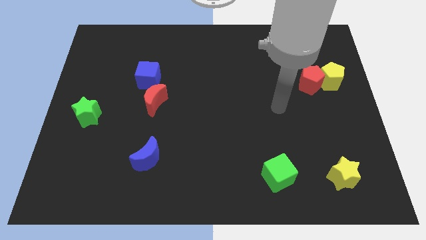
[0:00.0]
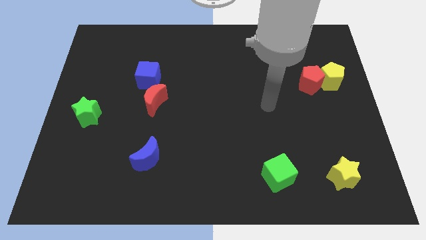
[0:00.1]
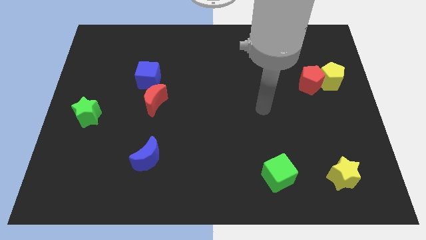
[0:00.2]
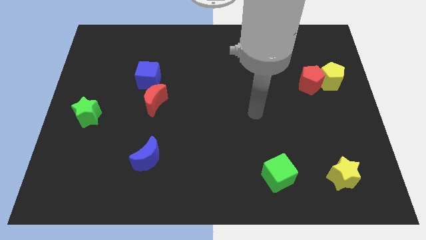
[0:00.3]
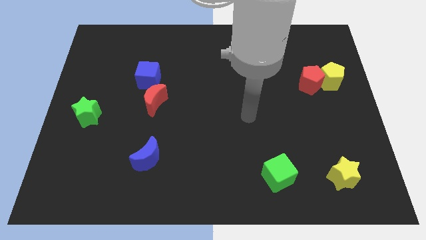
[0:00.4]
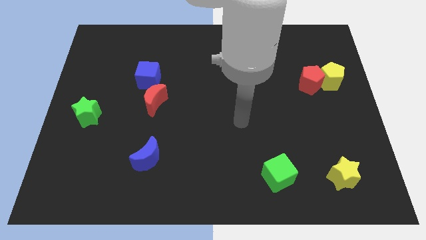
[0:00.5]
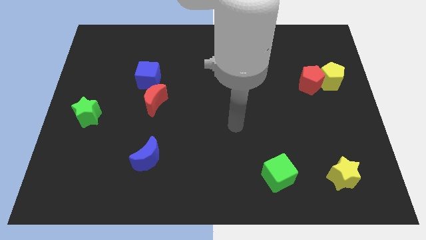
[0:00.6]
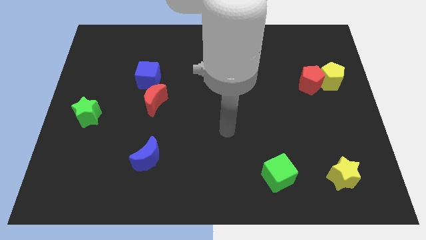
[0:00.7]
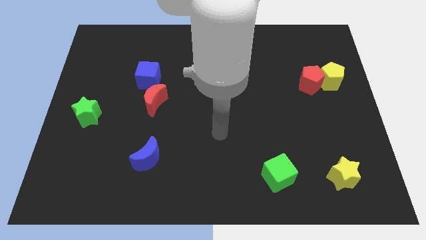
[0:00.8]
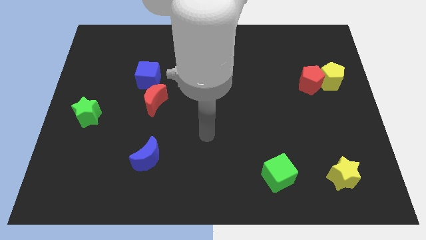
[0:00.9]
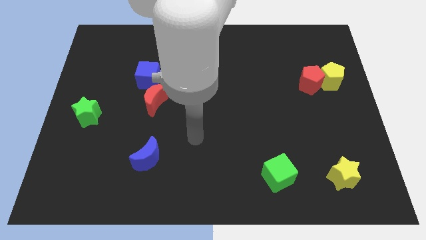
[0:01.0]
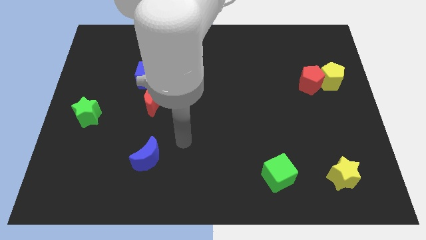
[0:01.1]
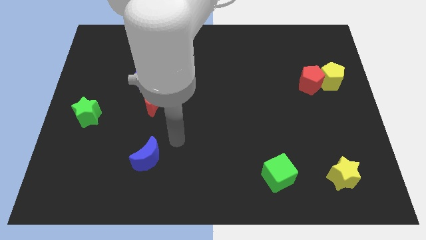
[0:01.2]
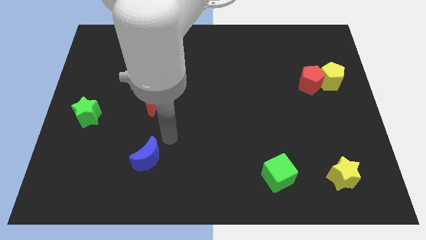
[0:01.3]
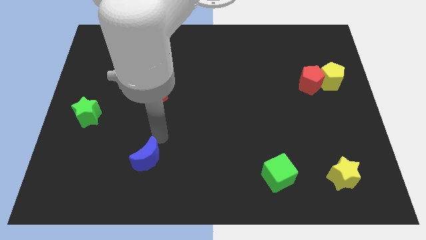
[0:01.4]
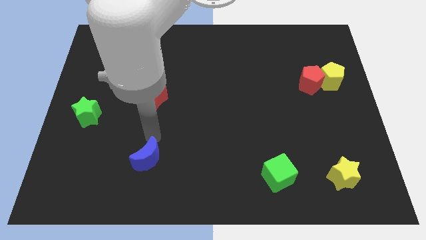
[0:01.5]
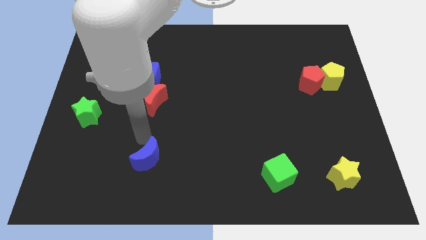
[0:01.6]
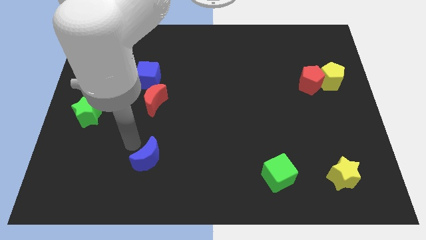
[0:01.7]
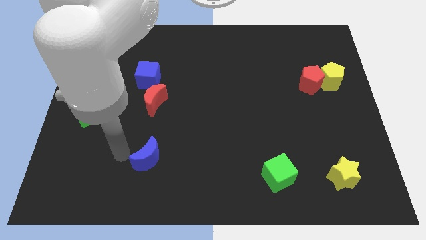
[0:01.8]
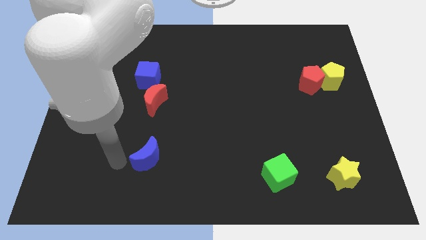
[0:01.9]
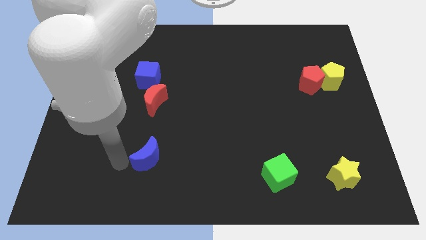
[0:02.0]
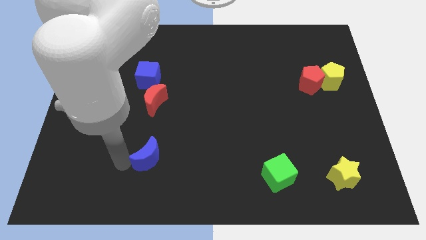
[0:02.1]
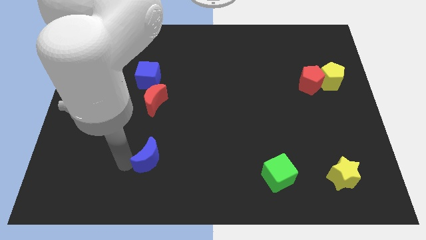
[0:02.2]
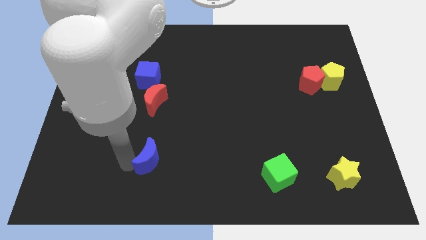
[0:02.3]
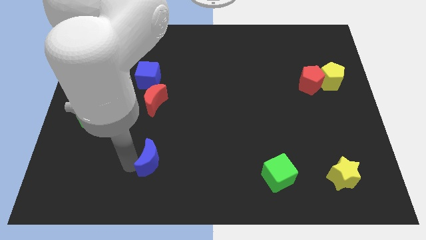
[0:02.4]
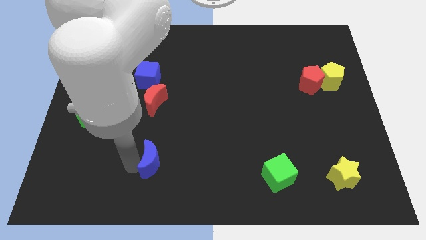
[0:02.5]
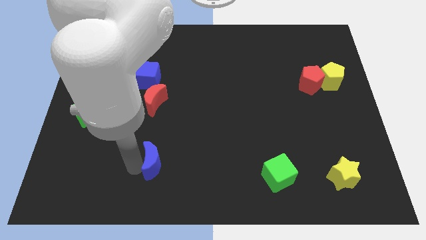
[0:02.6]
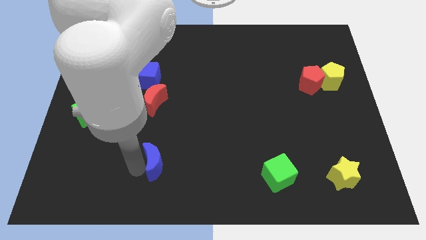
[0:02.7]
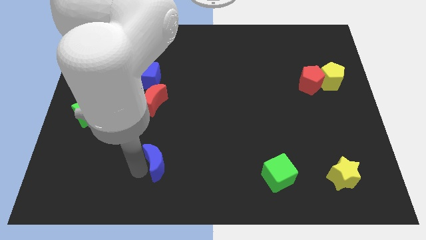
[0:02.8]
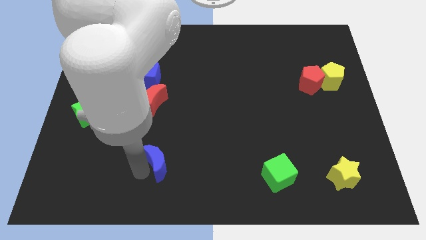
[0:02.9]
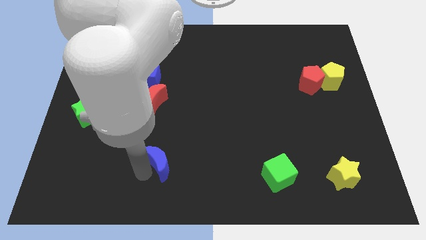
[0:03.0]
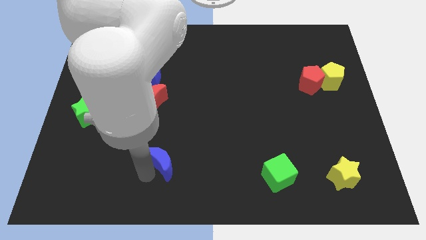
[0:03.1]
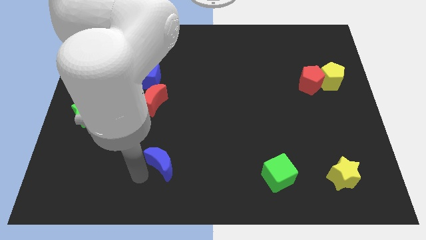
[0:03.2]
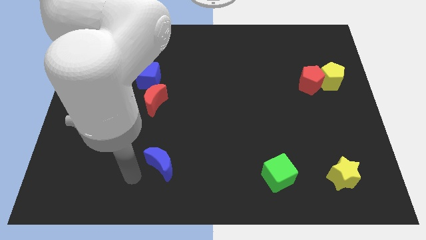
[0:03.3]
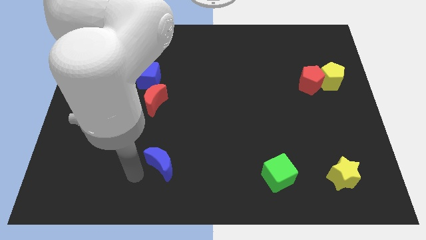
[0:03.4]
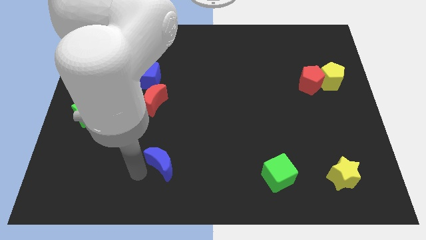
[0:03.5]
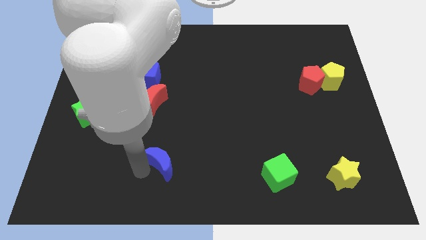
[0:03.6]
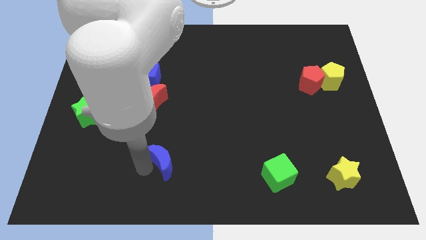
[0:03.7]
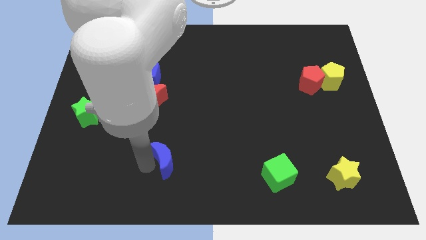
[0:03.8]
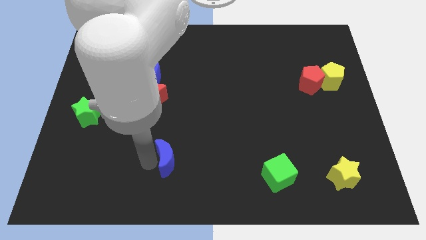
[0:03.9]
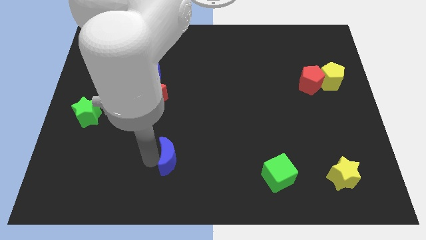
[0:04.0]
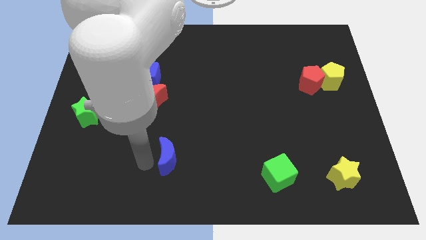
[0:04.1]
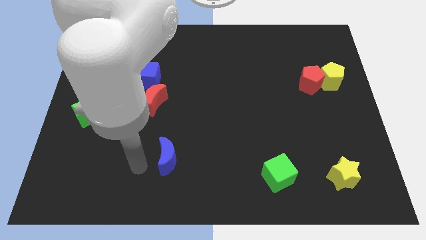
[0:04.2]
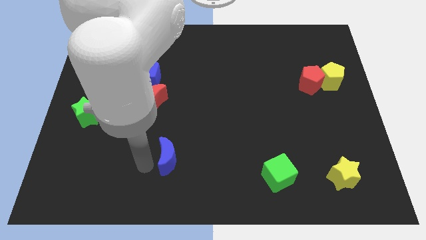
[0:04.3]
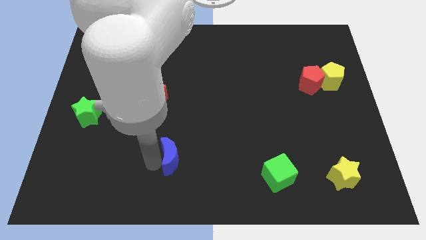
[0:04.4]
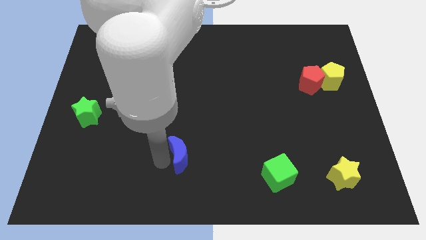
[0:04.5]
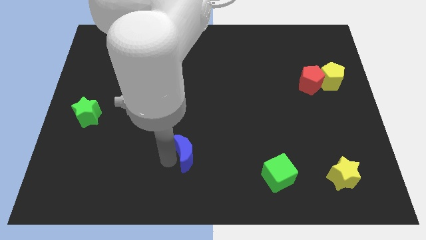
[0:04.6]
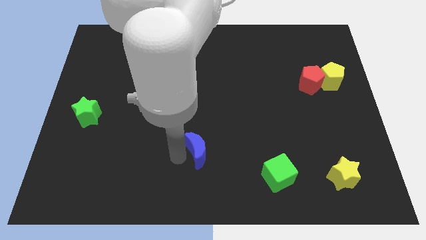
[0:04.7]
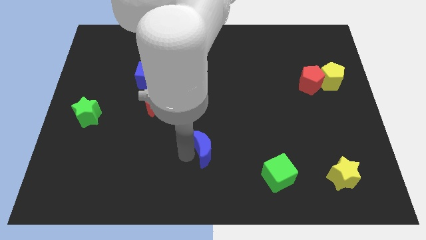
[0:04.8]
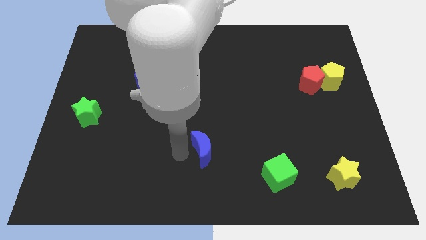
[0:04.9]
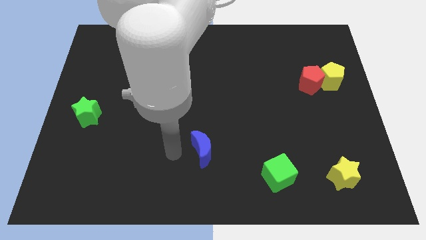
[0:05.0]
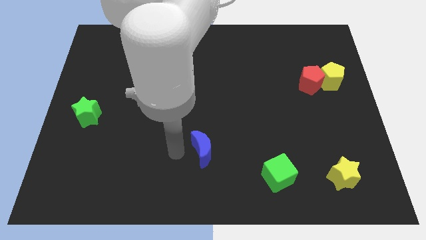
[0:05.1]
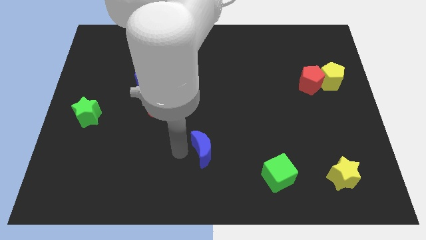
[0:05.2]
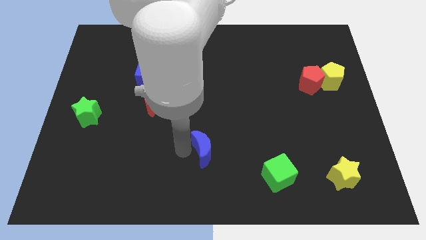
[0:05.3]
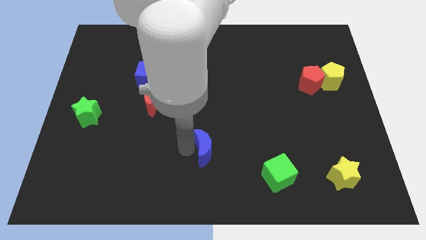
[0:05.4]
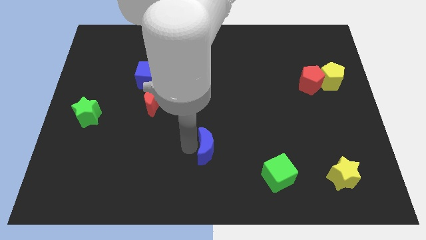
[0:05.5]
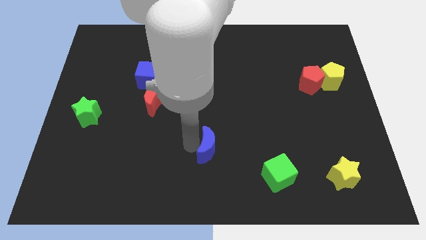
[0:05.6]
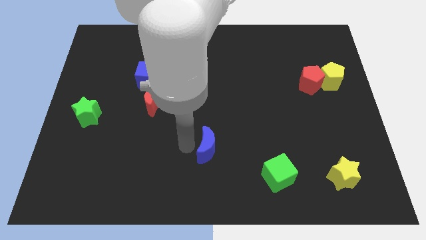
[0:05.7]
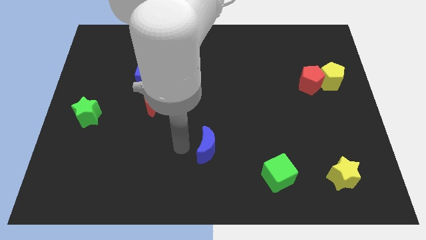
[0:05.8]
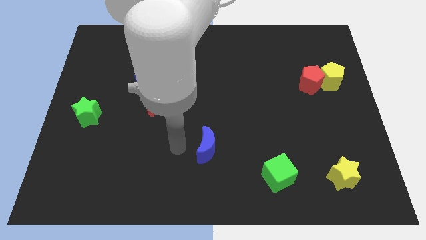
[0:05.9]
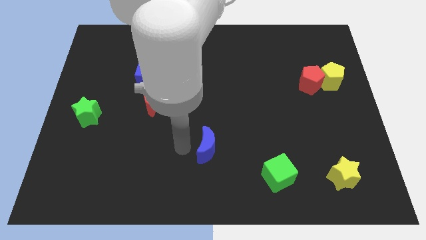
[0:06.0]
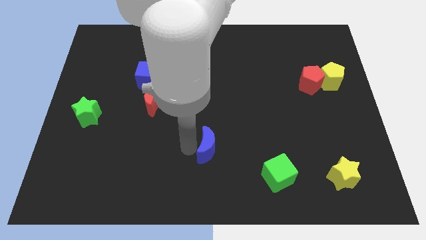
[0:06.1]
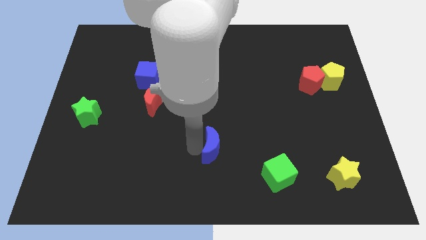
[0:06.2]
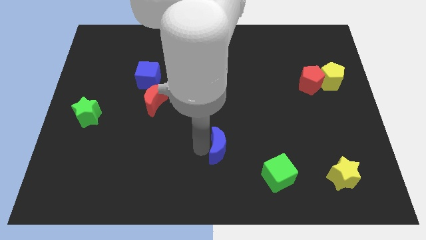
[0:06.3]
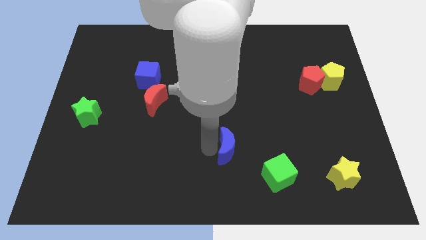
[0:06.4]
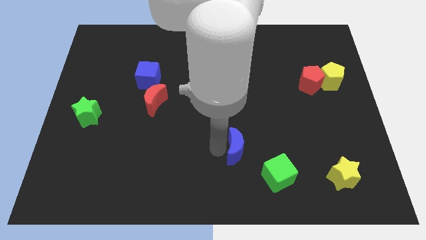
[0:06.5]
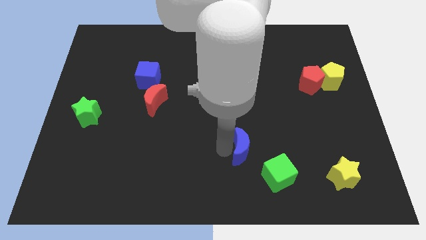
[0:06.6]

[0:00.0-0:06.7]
move the blue moon right

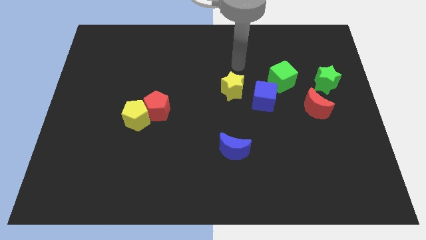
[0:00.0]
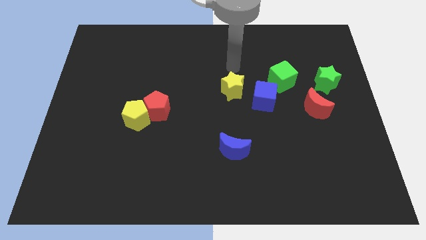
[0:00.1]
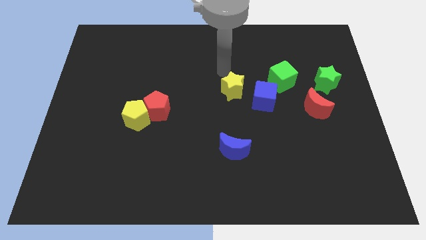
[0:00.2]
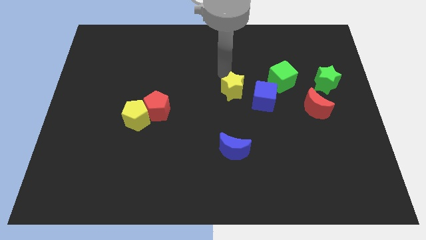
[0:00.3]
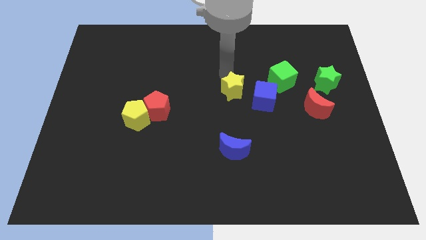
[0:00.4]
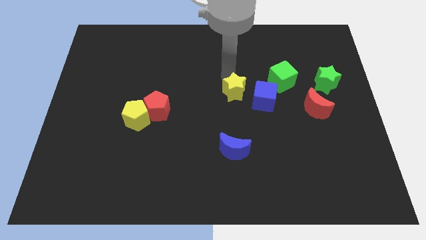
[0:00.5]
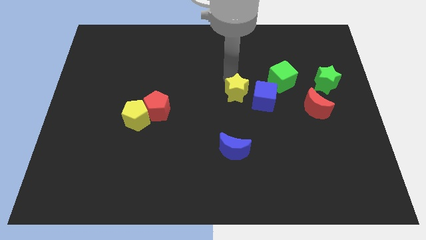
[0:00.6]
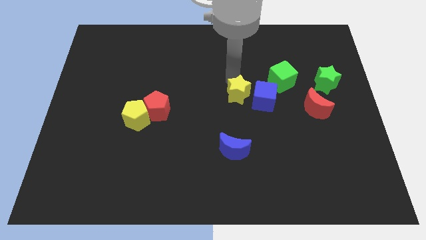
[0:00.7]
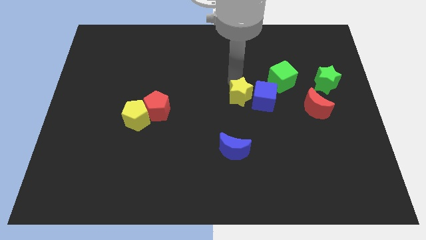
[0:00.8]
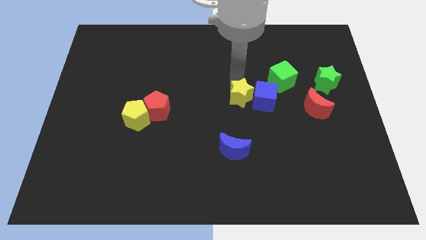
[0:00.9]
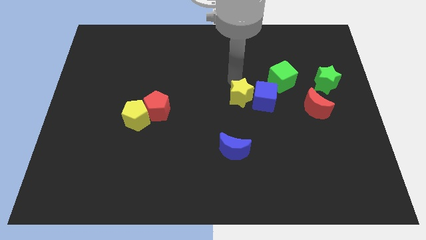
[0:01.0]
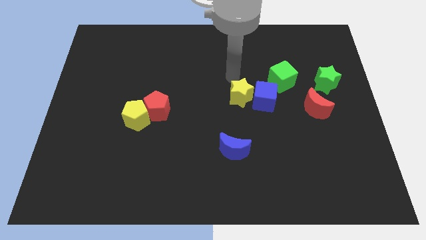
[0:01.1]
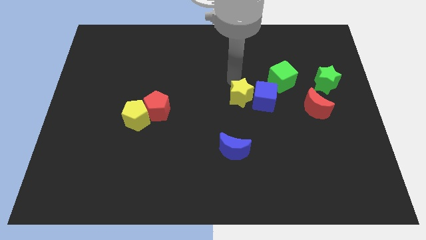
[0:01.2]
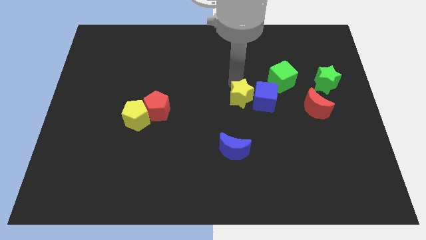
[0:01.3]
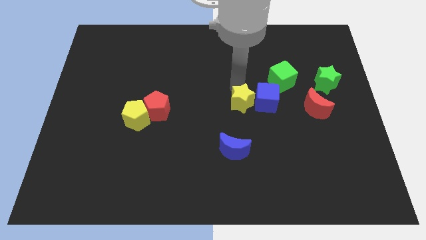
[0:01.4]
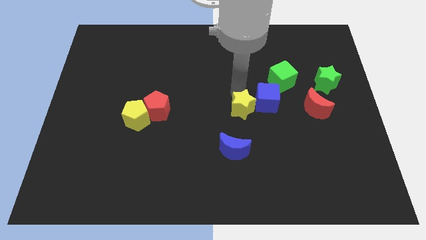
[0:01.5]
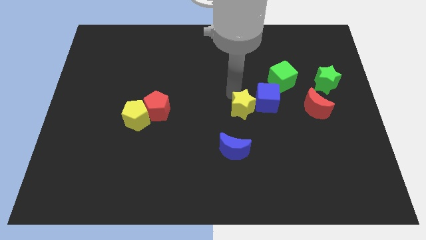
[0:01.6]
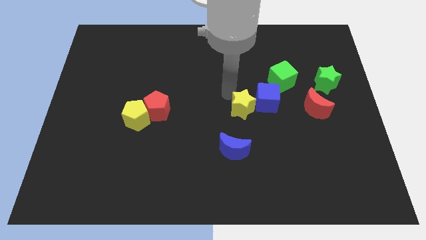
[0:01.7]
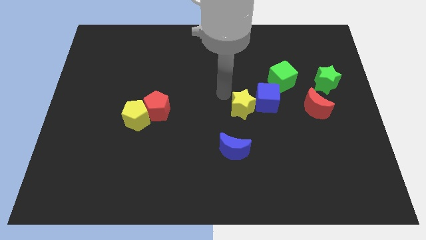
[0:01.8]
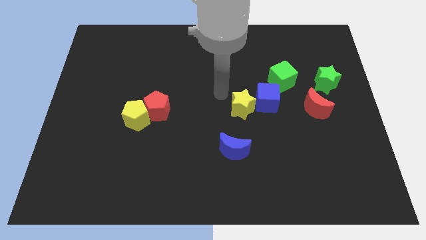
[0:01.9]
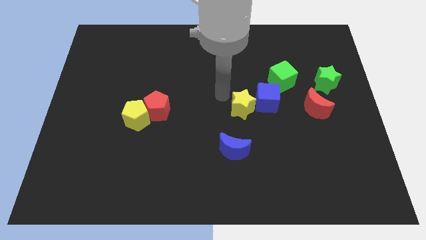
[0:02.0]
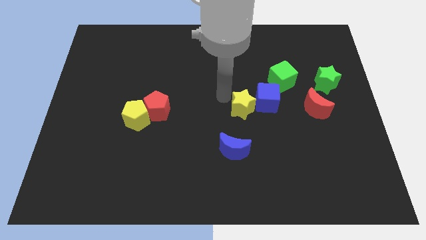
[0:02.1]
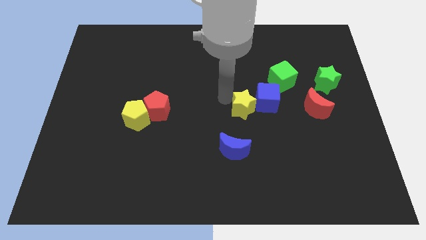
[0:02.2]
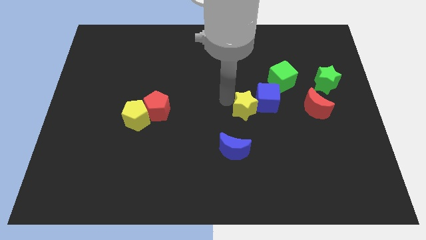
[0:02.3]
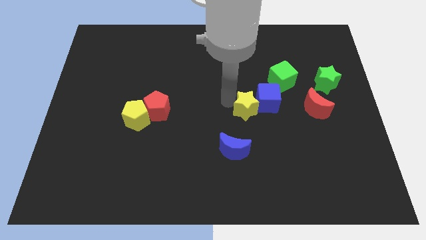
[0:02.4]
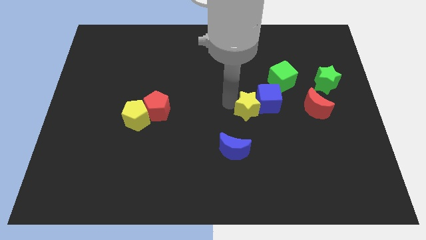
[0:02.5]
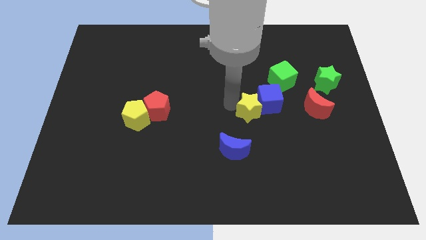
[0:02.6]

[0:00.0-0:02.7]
move the yellow star down and right slightly
